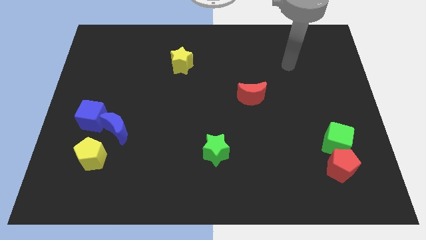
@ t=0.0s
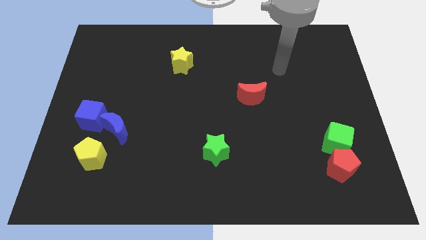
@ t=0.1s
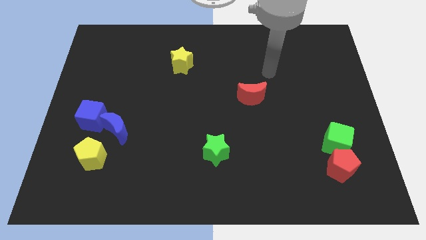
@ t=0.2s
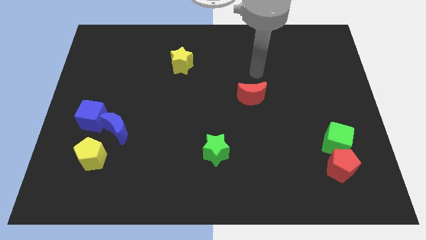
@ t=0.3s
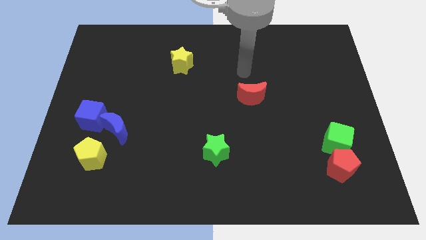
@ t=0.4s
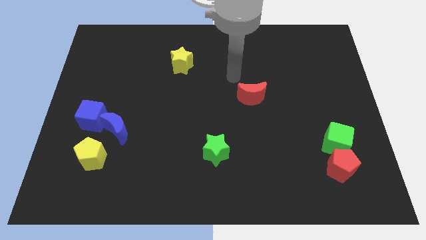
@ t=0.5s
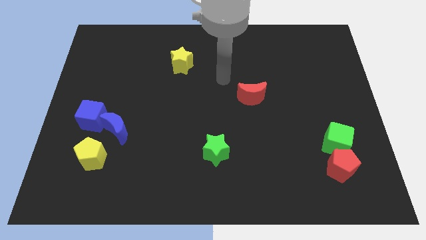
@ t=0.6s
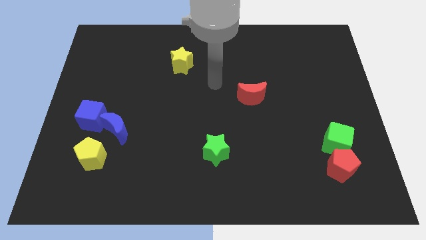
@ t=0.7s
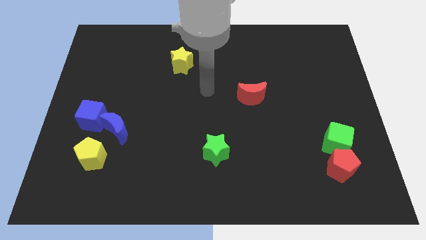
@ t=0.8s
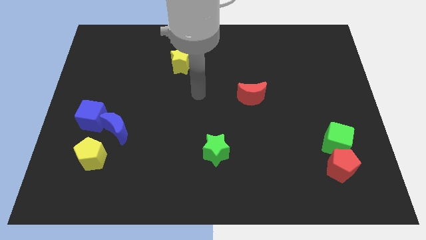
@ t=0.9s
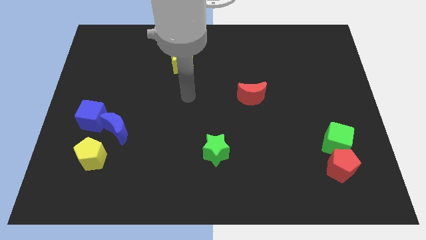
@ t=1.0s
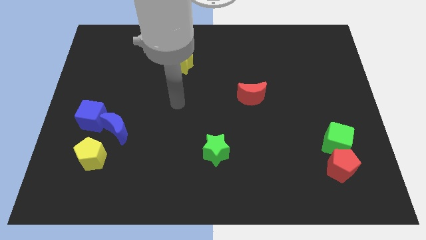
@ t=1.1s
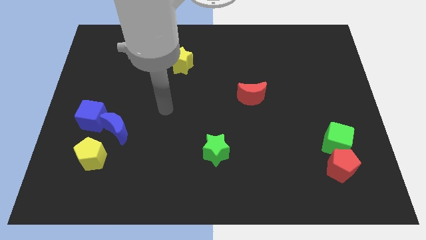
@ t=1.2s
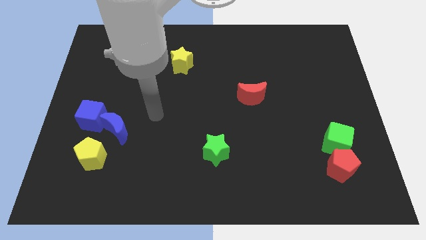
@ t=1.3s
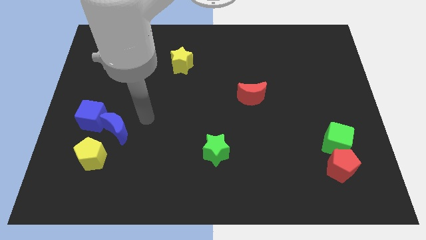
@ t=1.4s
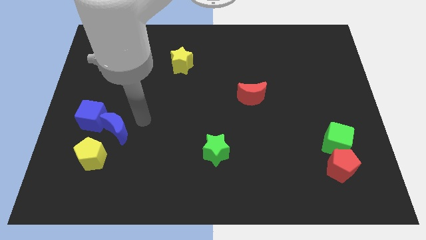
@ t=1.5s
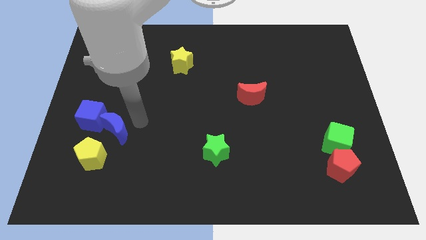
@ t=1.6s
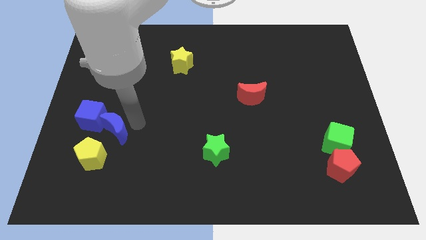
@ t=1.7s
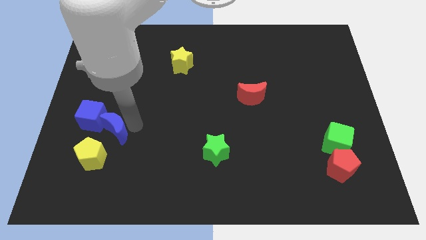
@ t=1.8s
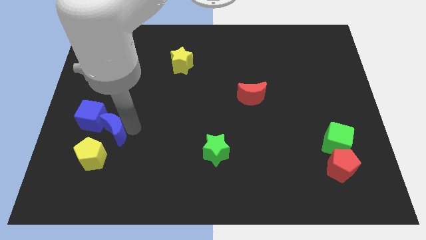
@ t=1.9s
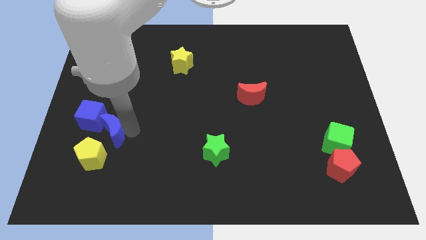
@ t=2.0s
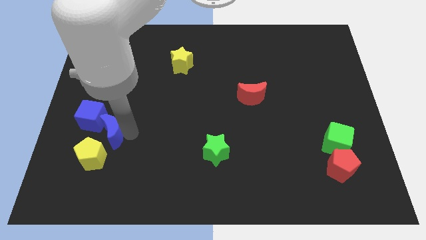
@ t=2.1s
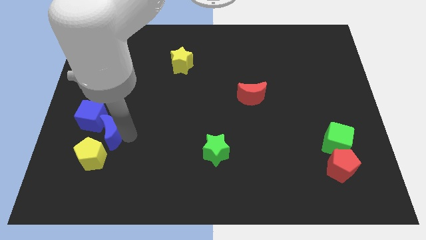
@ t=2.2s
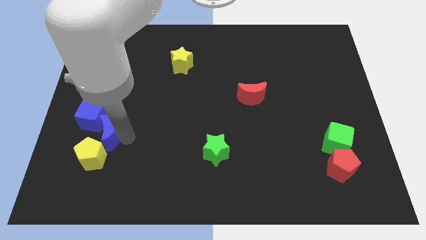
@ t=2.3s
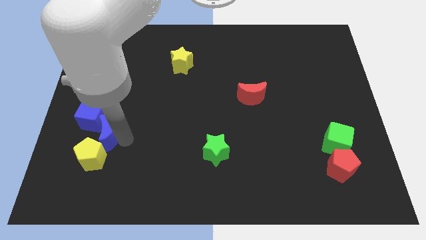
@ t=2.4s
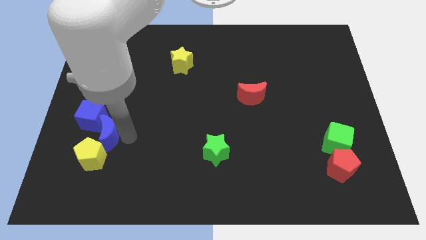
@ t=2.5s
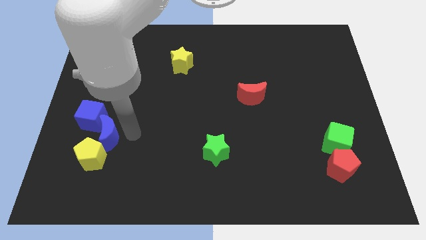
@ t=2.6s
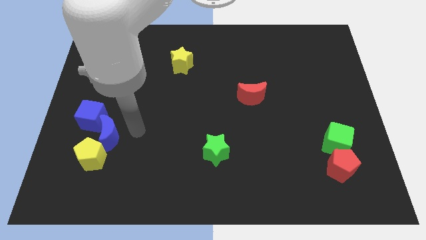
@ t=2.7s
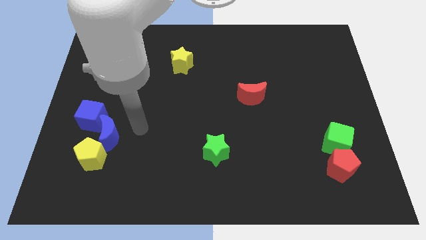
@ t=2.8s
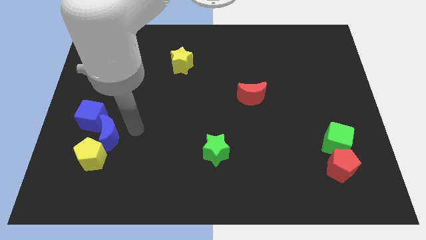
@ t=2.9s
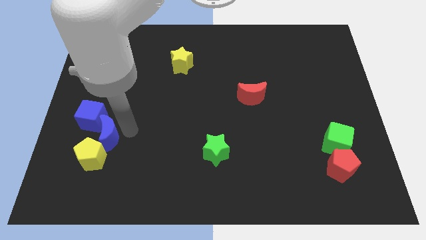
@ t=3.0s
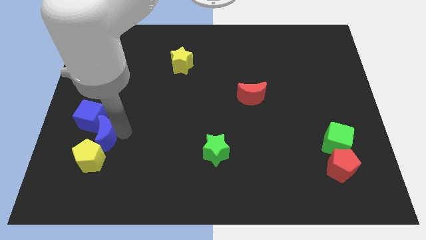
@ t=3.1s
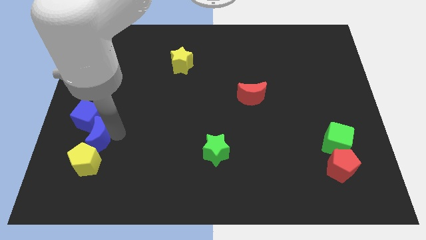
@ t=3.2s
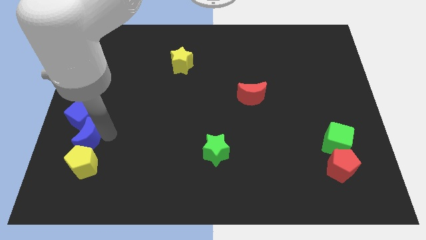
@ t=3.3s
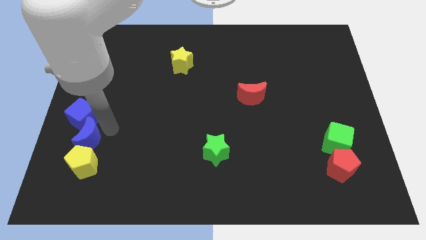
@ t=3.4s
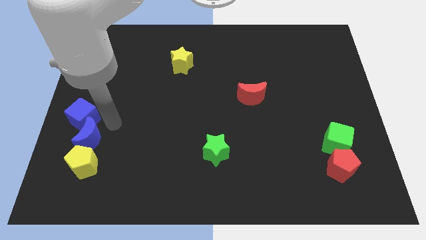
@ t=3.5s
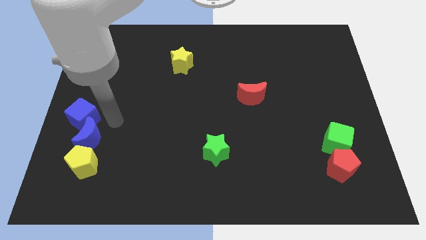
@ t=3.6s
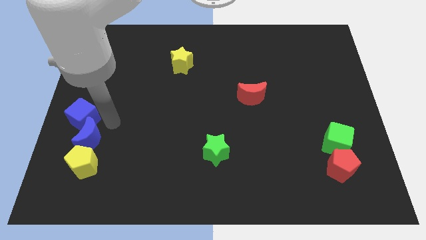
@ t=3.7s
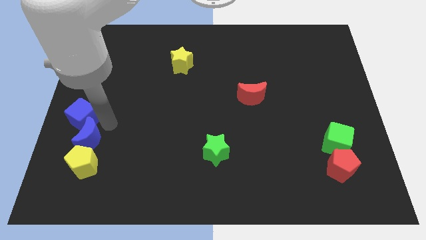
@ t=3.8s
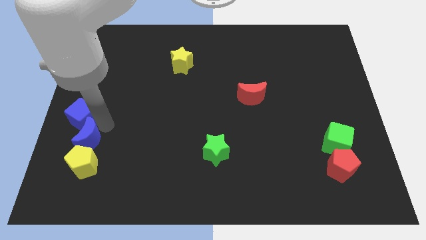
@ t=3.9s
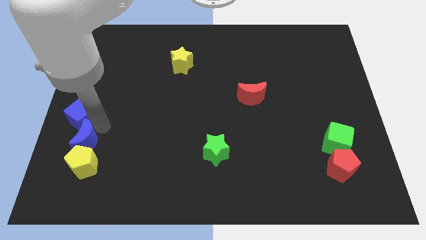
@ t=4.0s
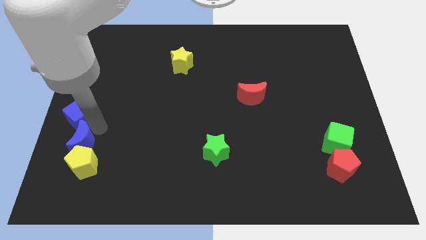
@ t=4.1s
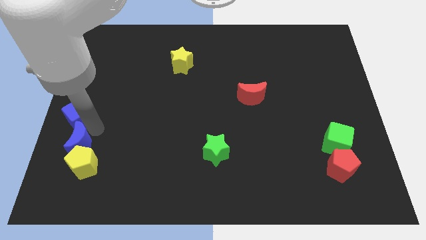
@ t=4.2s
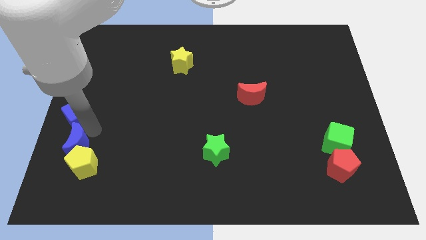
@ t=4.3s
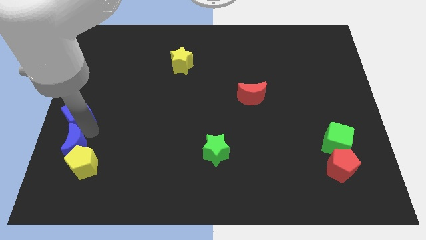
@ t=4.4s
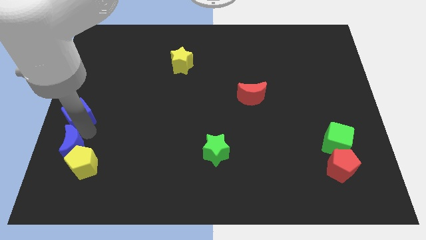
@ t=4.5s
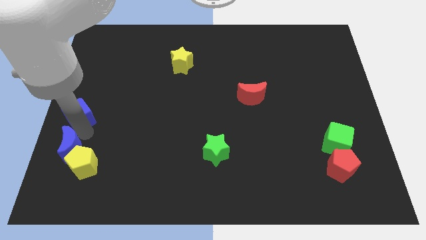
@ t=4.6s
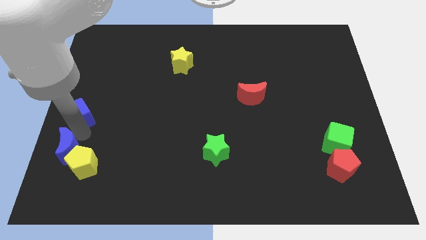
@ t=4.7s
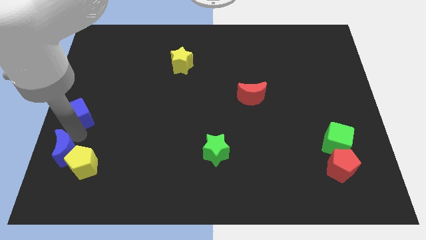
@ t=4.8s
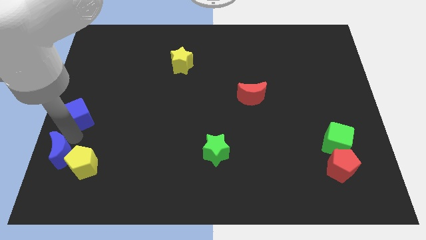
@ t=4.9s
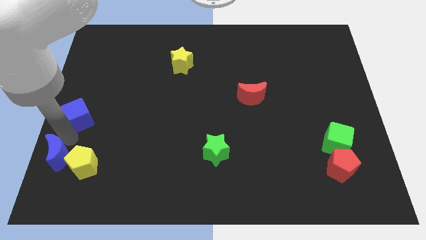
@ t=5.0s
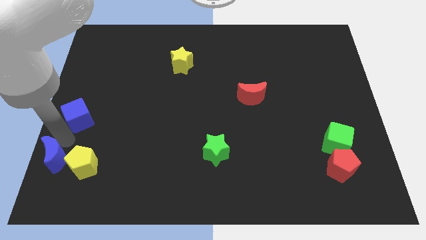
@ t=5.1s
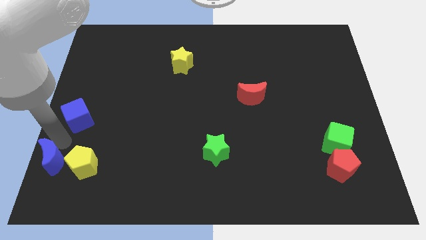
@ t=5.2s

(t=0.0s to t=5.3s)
move the blue moon to the bottom left of the board

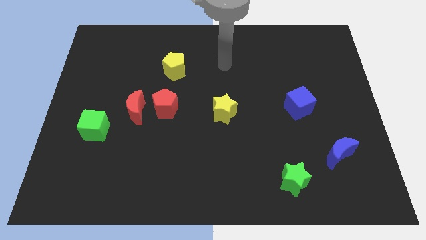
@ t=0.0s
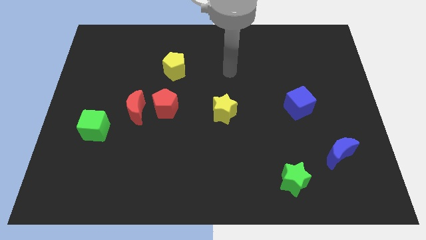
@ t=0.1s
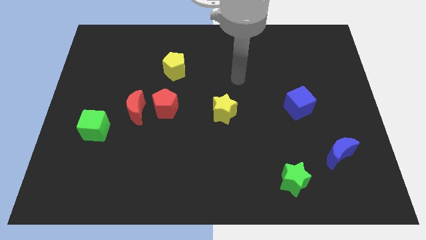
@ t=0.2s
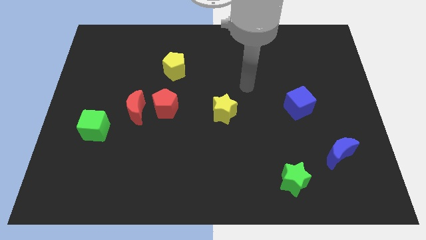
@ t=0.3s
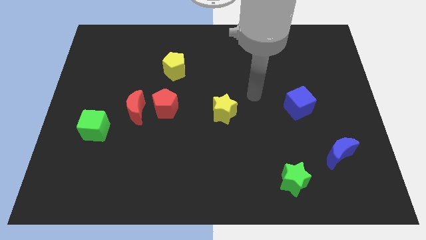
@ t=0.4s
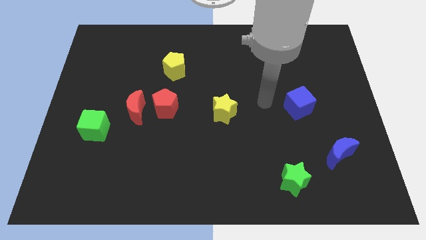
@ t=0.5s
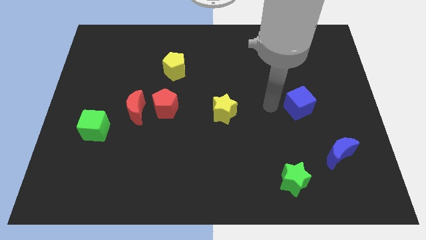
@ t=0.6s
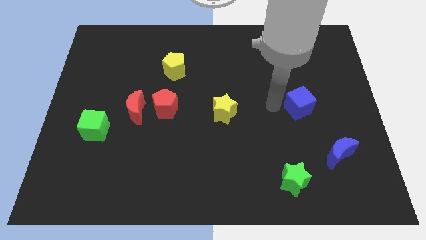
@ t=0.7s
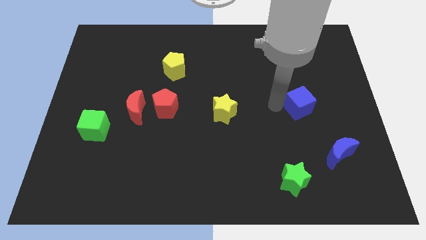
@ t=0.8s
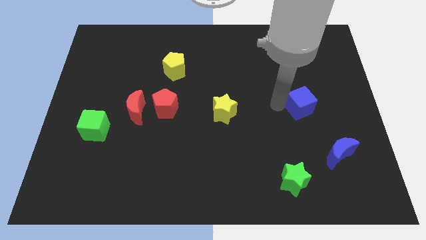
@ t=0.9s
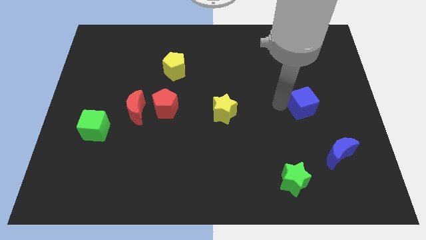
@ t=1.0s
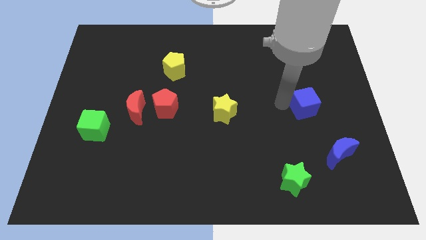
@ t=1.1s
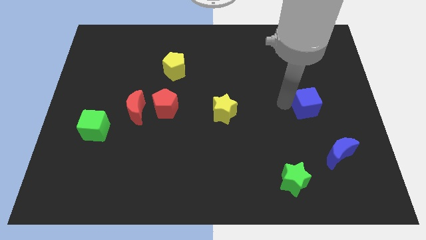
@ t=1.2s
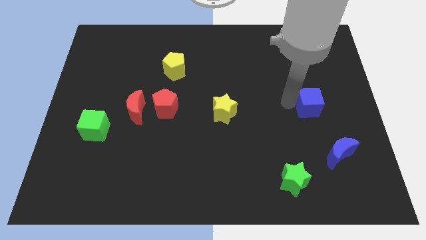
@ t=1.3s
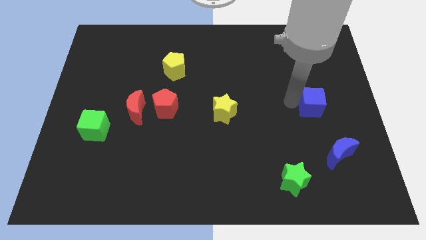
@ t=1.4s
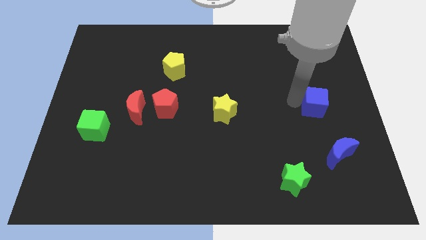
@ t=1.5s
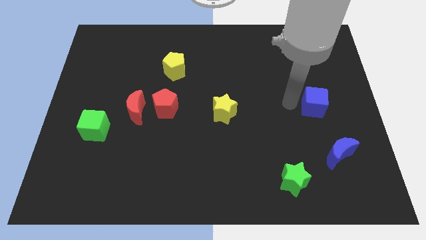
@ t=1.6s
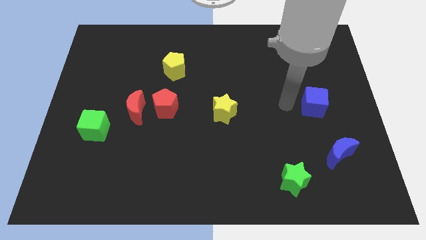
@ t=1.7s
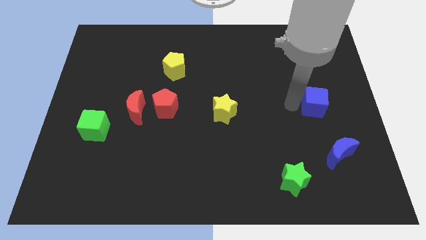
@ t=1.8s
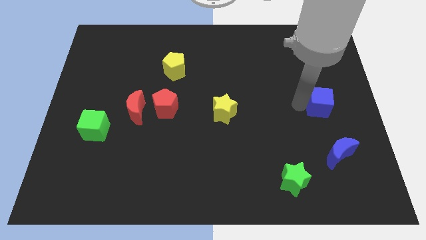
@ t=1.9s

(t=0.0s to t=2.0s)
put the blue cube to the right side
